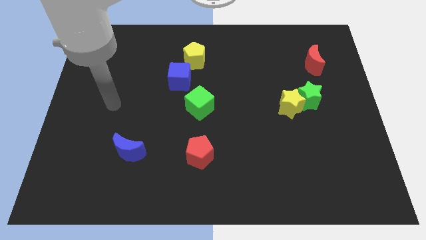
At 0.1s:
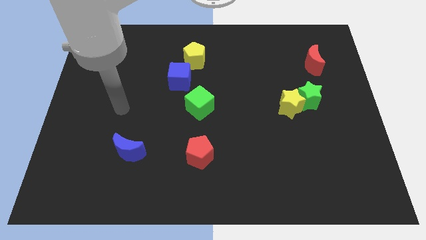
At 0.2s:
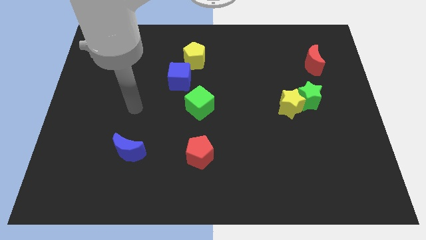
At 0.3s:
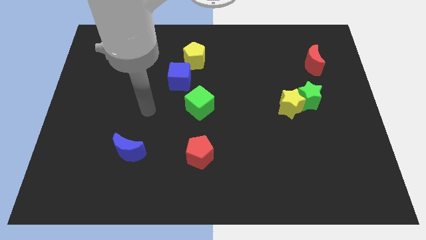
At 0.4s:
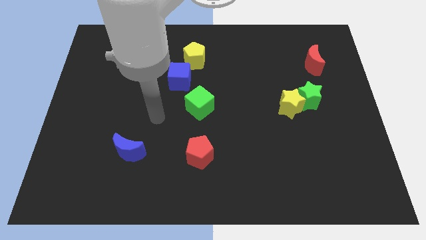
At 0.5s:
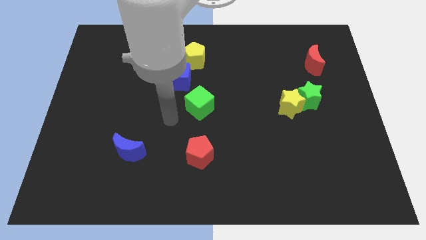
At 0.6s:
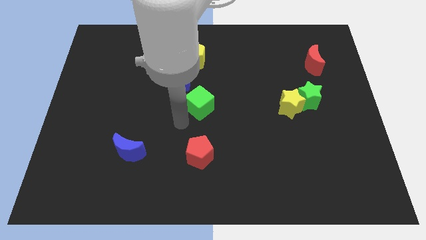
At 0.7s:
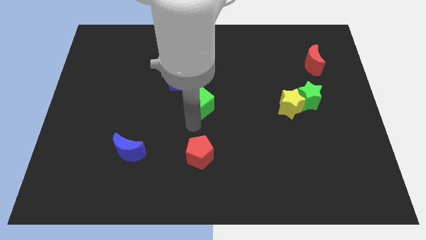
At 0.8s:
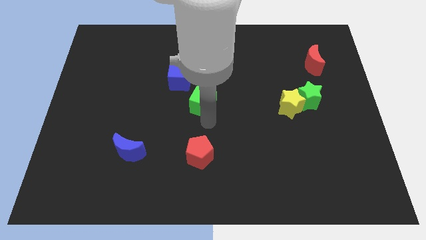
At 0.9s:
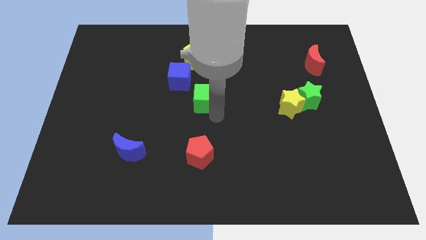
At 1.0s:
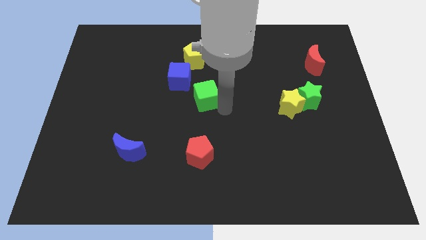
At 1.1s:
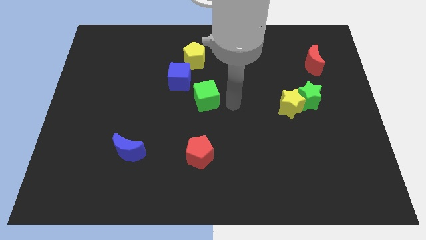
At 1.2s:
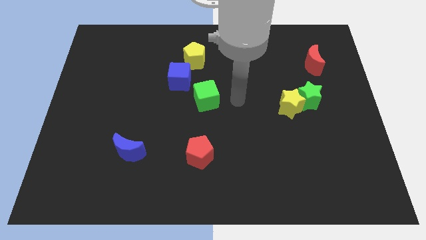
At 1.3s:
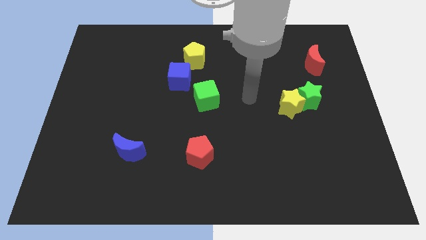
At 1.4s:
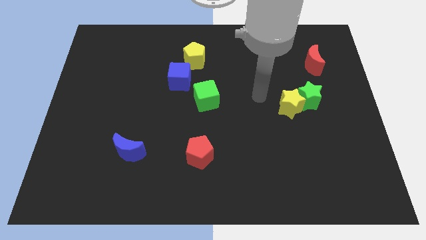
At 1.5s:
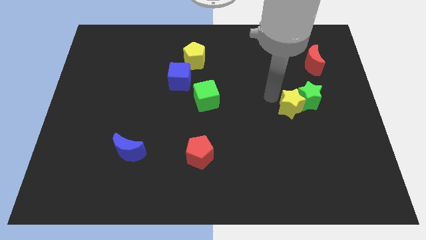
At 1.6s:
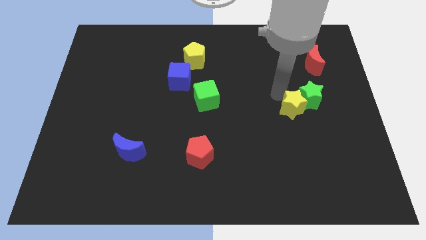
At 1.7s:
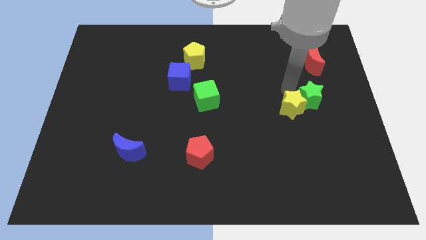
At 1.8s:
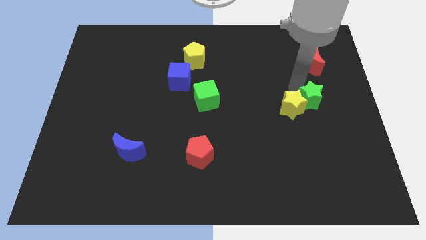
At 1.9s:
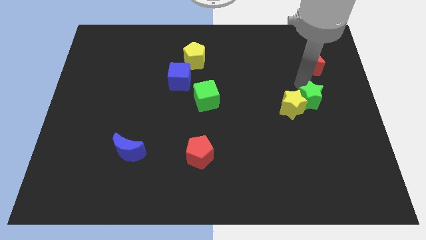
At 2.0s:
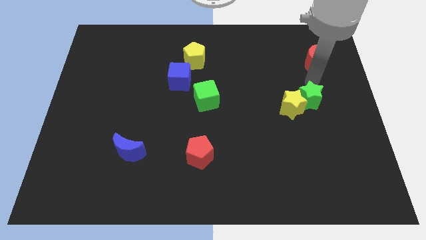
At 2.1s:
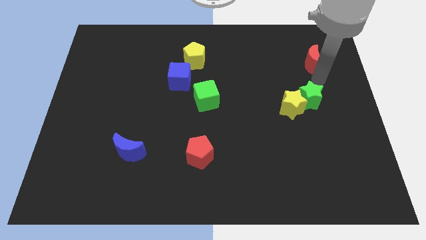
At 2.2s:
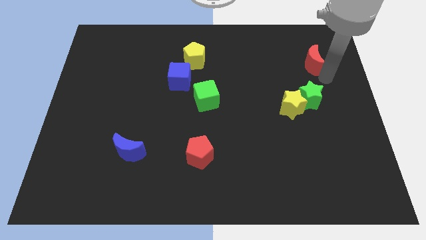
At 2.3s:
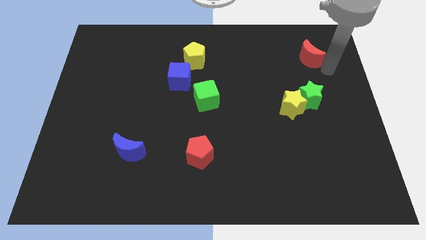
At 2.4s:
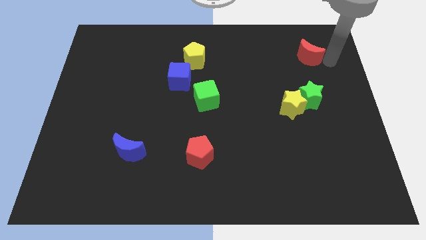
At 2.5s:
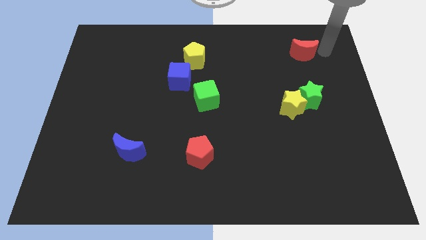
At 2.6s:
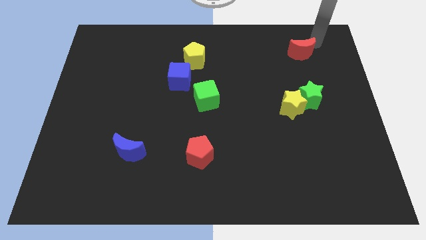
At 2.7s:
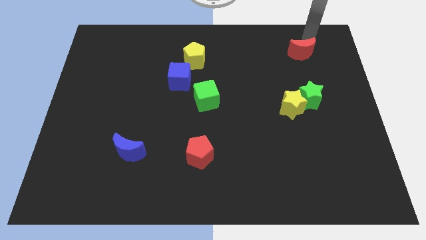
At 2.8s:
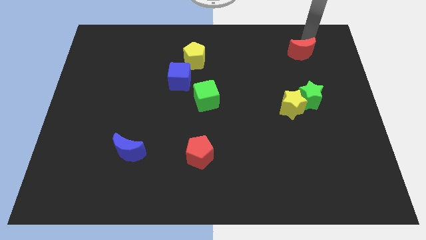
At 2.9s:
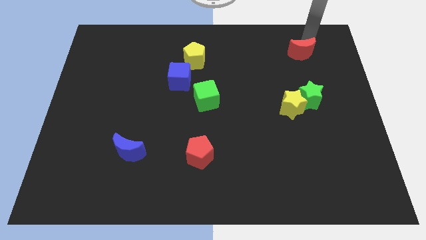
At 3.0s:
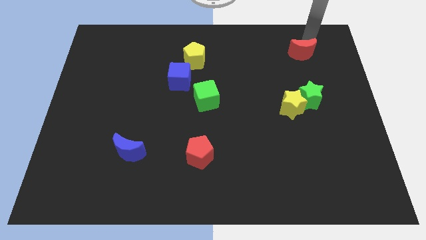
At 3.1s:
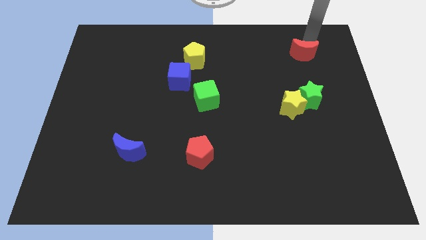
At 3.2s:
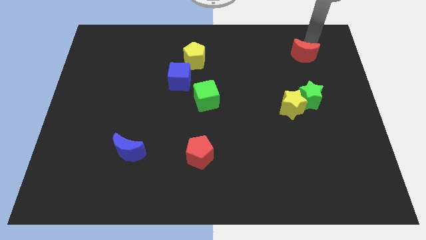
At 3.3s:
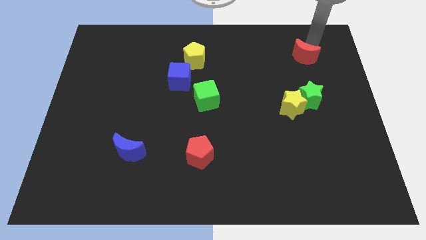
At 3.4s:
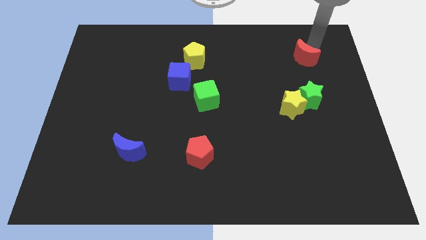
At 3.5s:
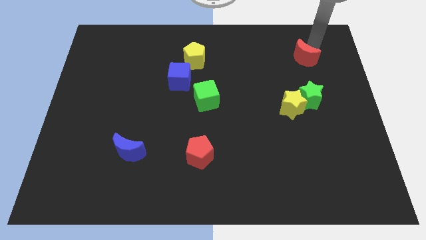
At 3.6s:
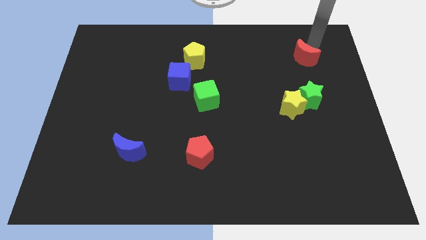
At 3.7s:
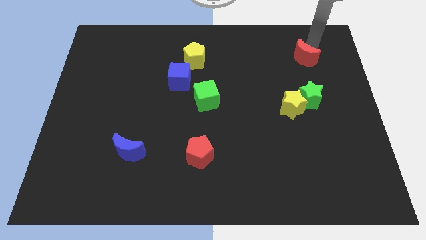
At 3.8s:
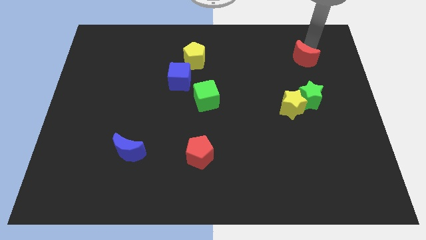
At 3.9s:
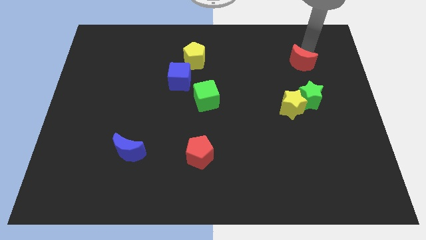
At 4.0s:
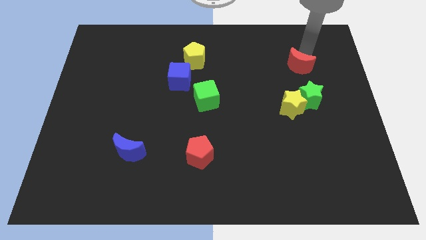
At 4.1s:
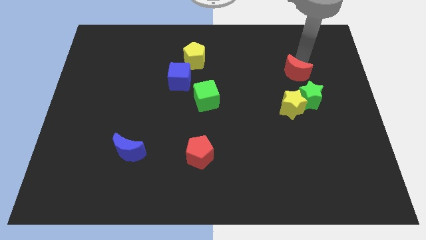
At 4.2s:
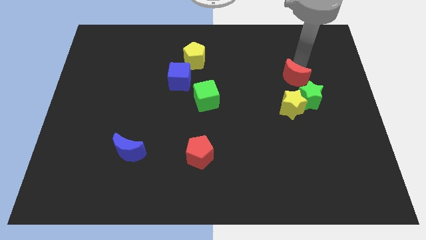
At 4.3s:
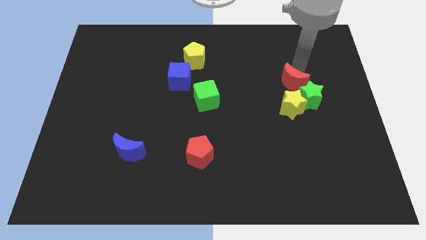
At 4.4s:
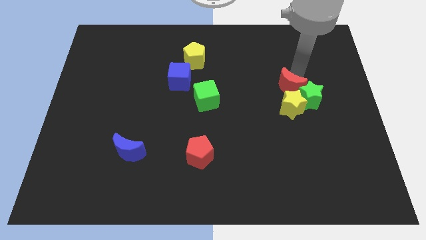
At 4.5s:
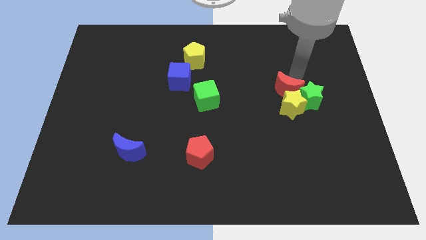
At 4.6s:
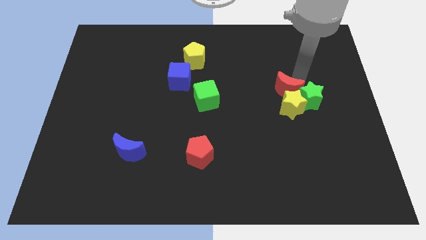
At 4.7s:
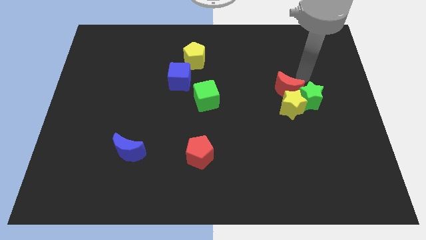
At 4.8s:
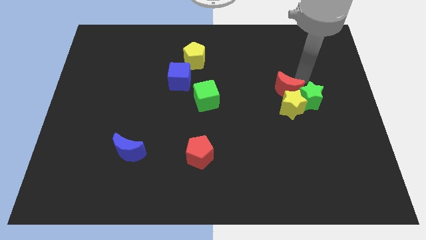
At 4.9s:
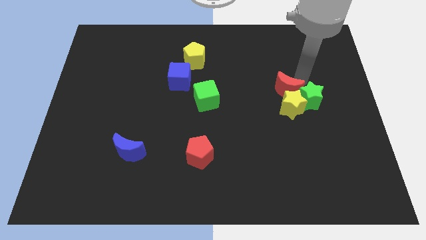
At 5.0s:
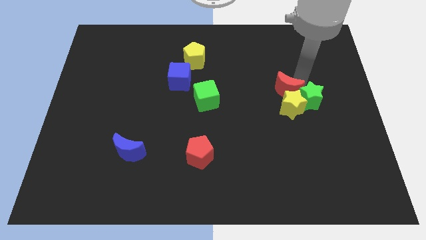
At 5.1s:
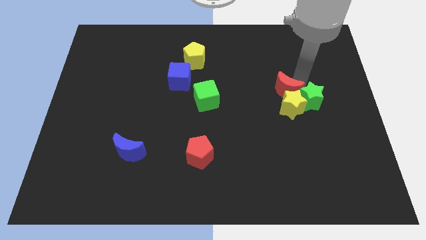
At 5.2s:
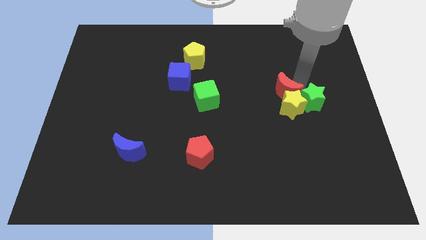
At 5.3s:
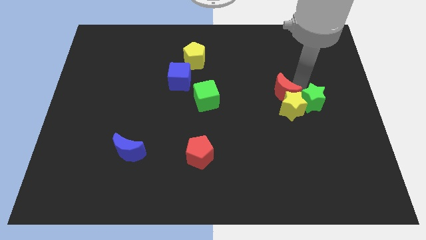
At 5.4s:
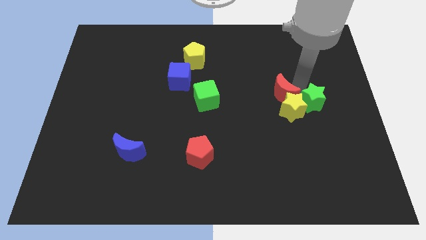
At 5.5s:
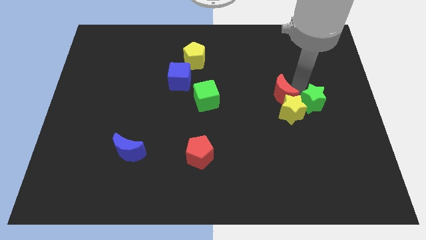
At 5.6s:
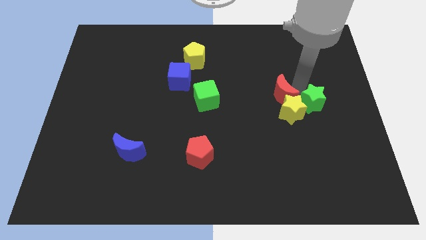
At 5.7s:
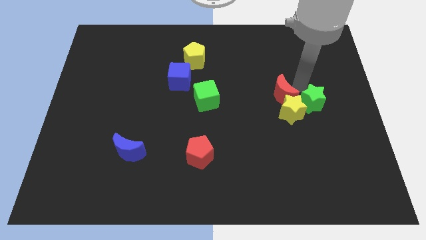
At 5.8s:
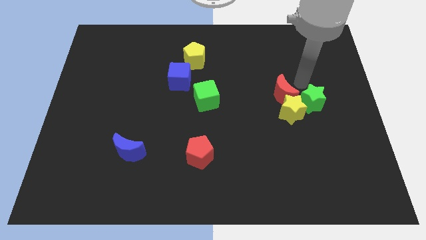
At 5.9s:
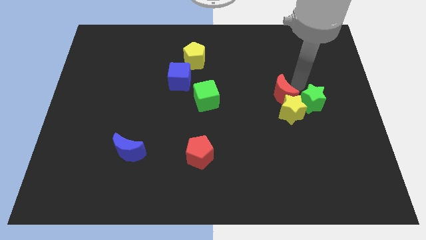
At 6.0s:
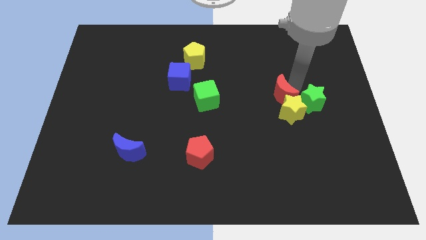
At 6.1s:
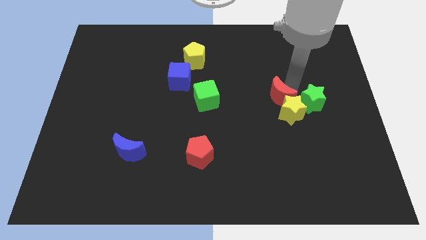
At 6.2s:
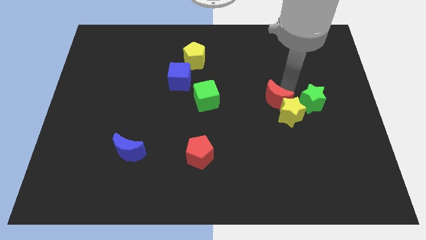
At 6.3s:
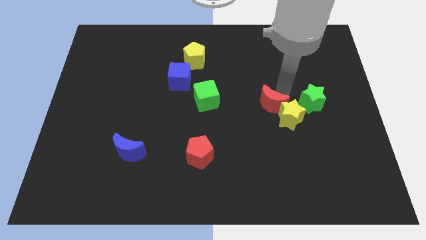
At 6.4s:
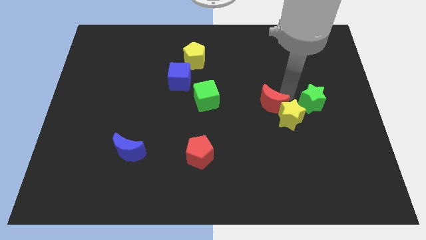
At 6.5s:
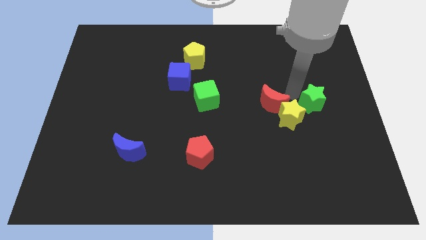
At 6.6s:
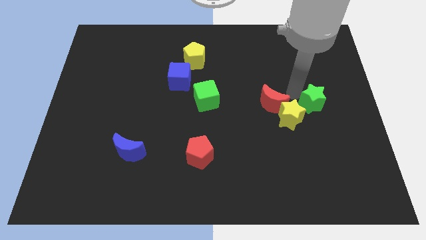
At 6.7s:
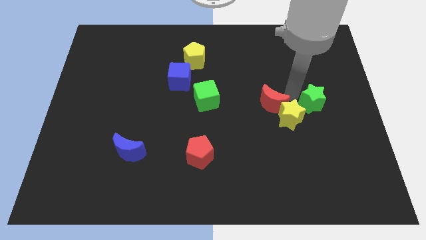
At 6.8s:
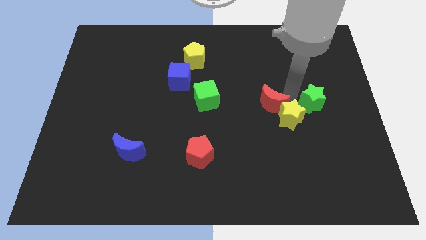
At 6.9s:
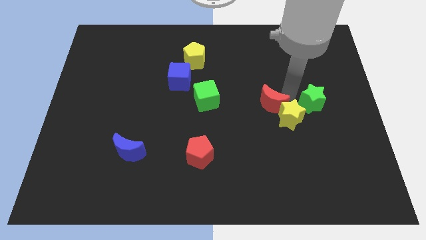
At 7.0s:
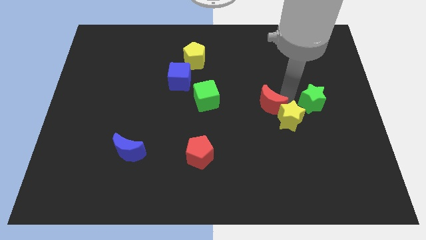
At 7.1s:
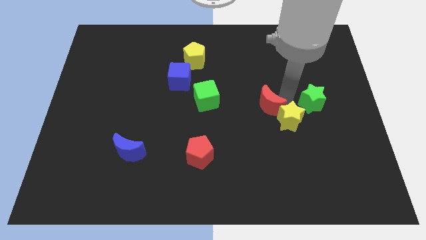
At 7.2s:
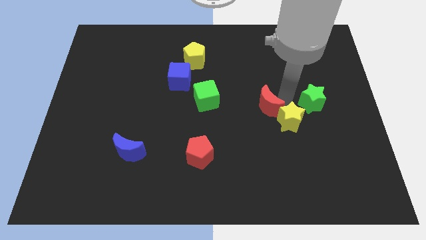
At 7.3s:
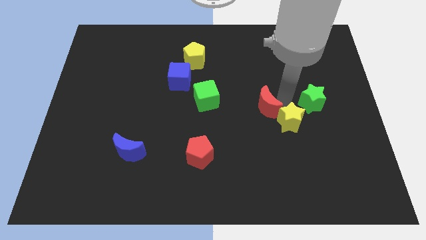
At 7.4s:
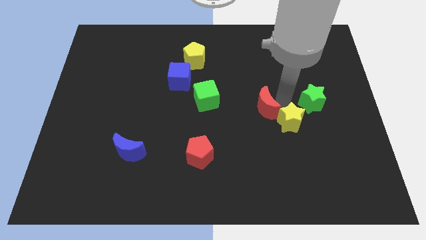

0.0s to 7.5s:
slide the red moon diagonally down and left

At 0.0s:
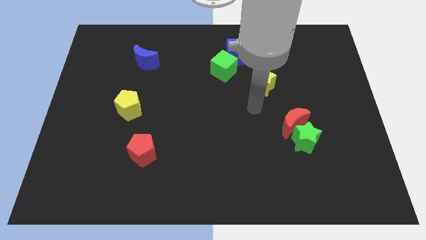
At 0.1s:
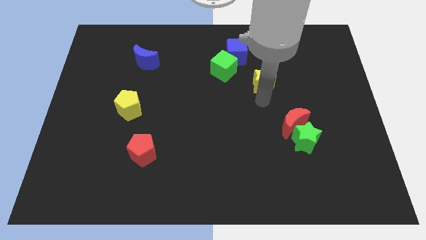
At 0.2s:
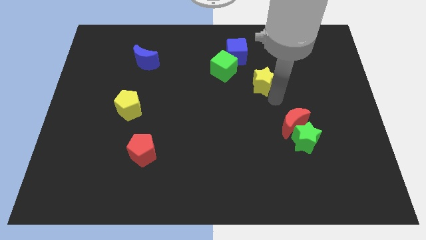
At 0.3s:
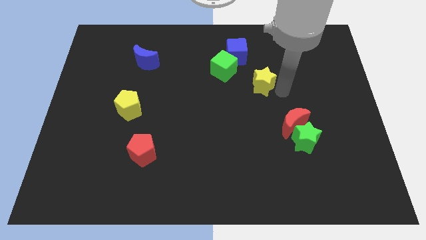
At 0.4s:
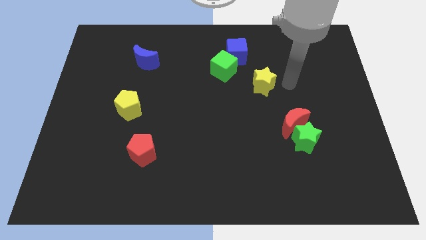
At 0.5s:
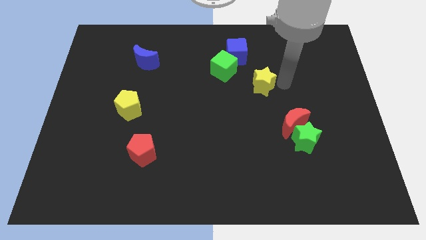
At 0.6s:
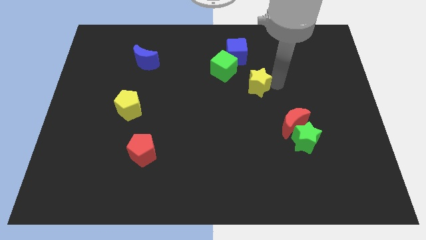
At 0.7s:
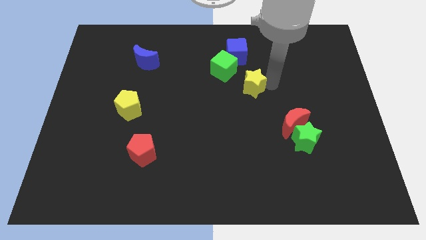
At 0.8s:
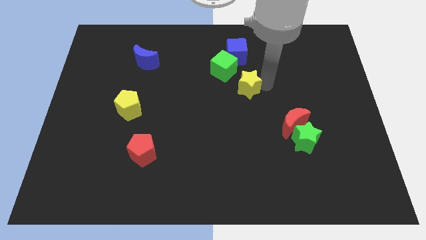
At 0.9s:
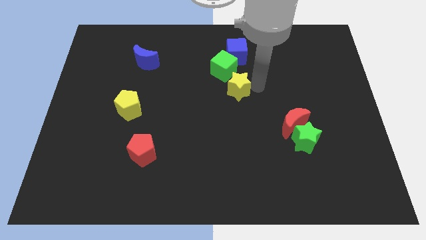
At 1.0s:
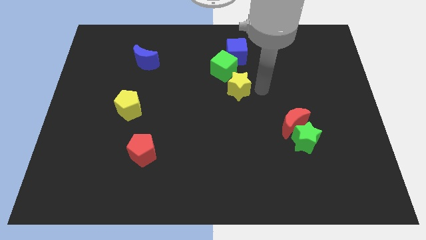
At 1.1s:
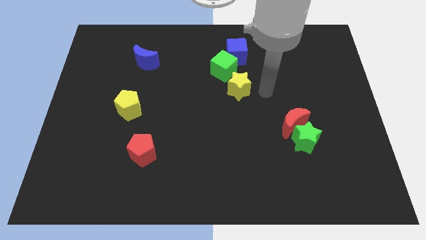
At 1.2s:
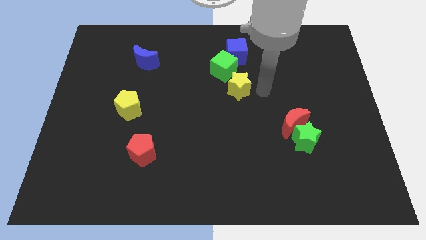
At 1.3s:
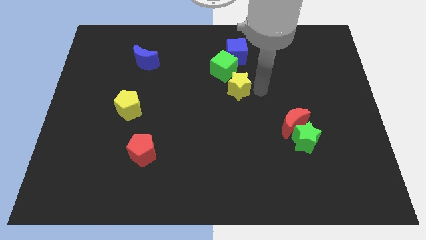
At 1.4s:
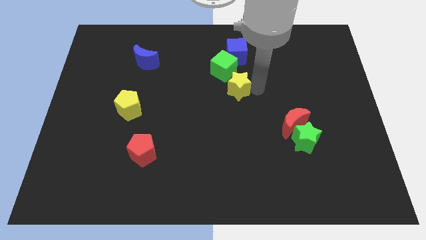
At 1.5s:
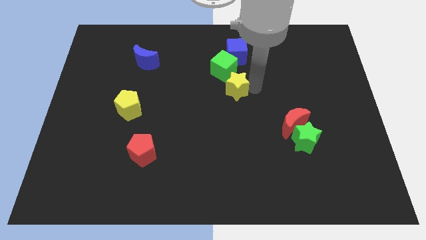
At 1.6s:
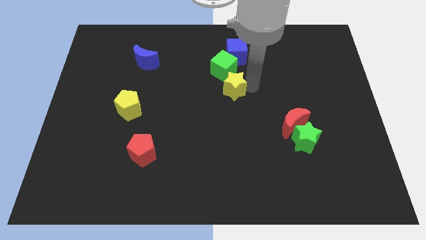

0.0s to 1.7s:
slightly move the yellow star to the left
